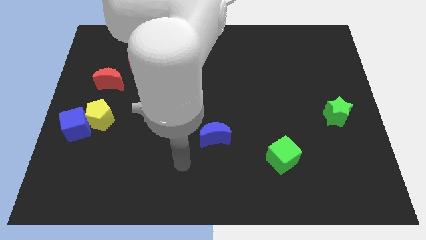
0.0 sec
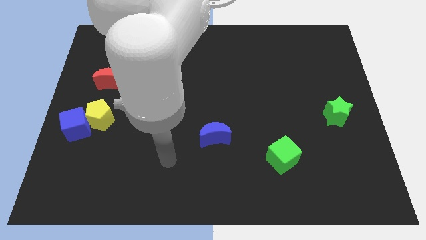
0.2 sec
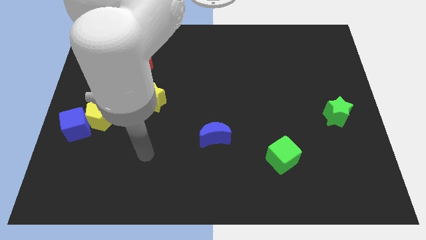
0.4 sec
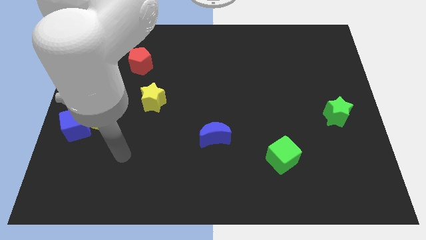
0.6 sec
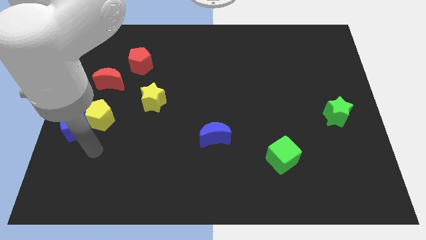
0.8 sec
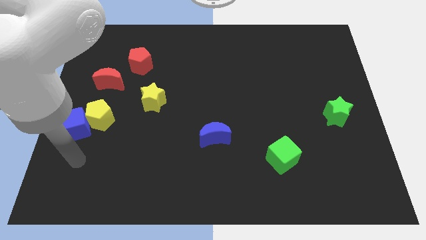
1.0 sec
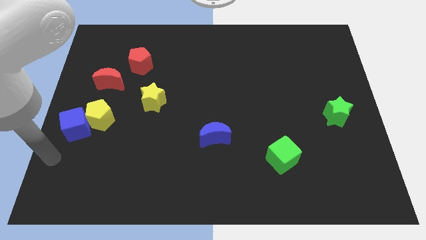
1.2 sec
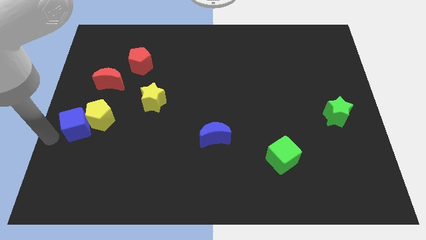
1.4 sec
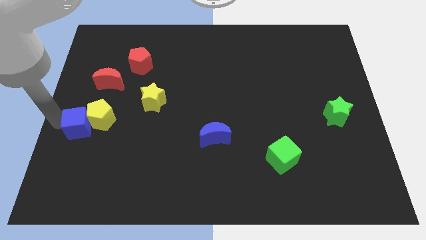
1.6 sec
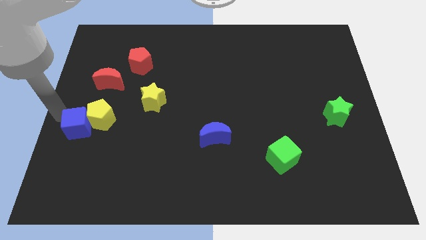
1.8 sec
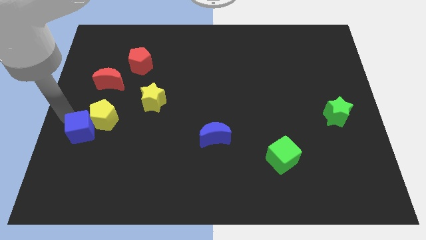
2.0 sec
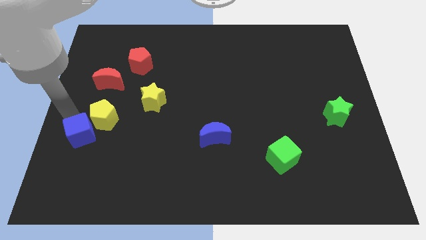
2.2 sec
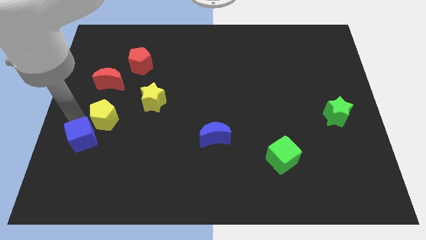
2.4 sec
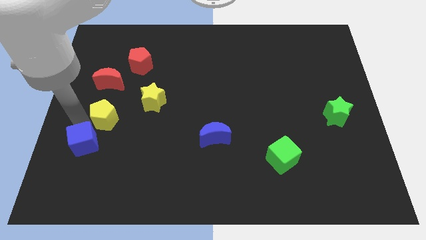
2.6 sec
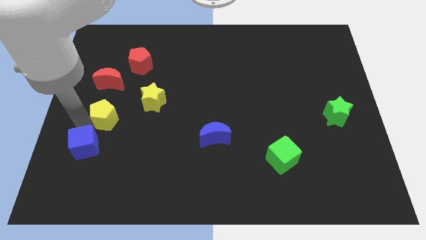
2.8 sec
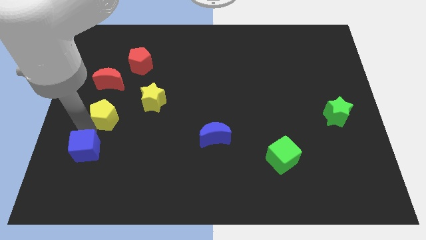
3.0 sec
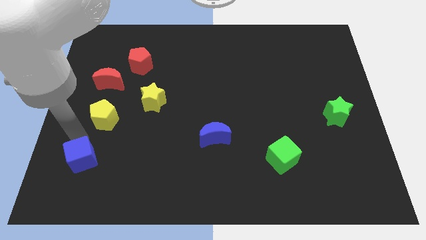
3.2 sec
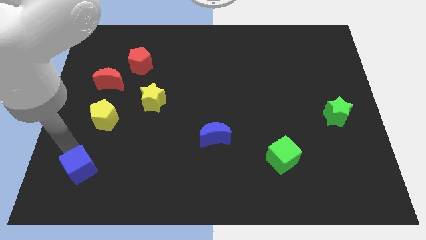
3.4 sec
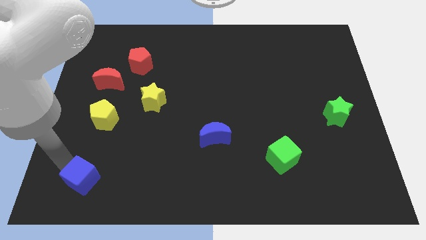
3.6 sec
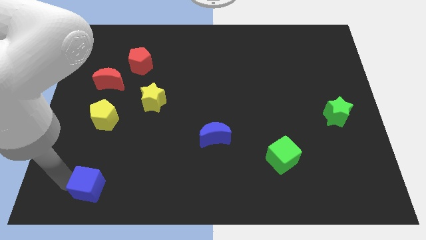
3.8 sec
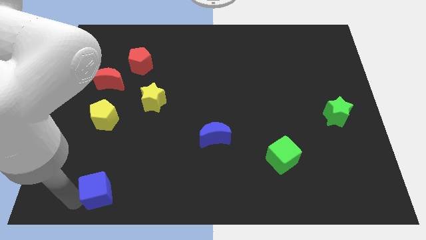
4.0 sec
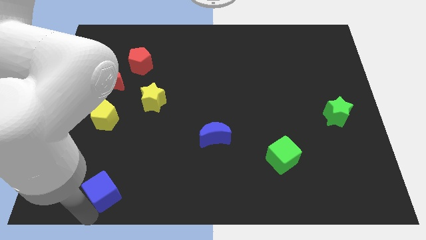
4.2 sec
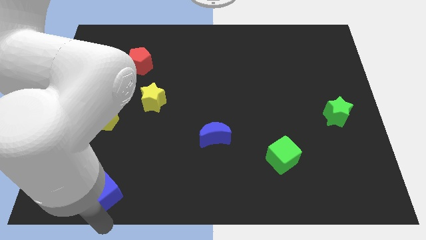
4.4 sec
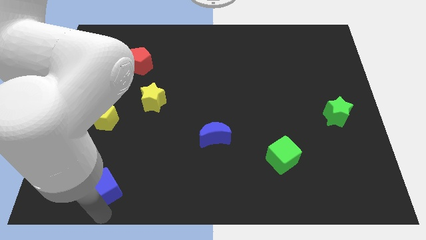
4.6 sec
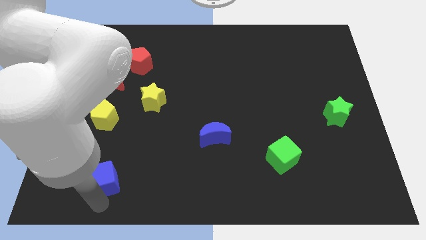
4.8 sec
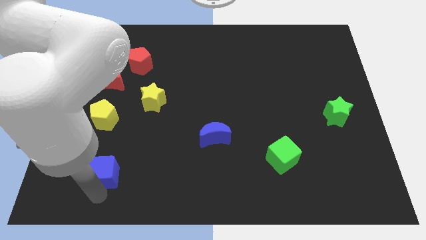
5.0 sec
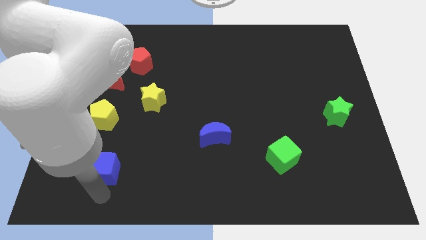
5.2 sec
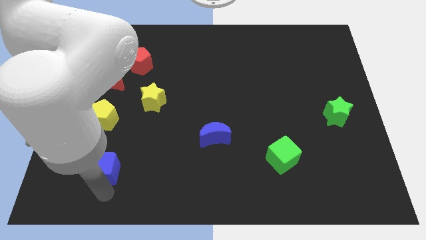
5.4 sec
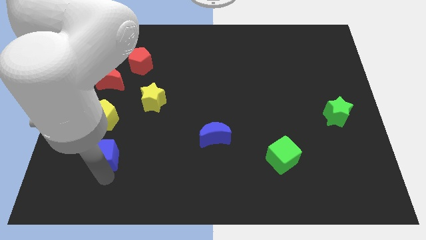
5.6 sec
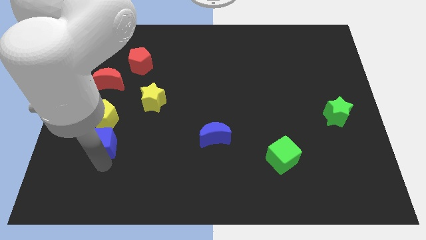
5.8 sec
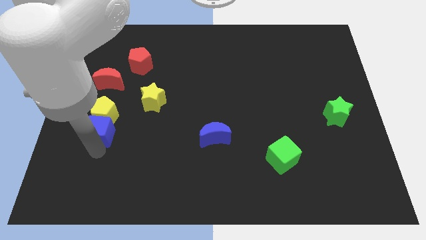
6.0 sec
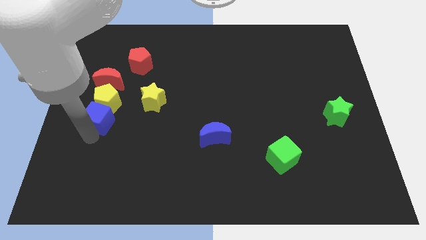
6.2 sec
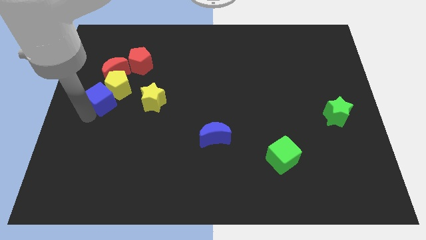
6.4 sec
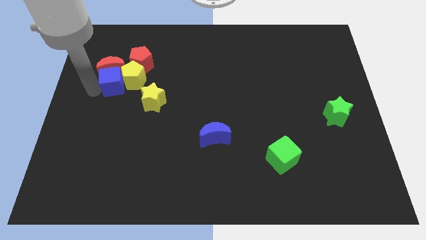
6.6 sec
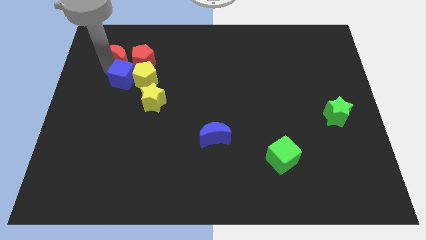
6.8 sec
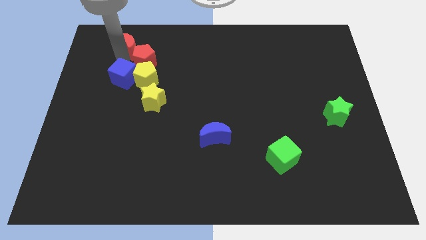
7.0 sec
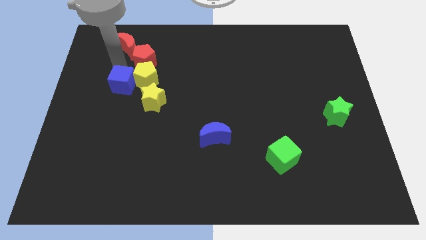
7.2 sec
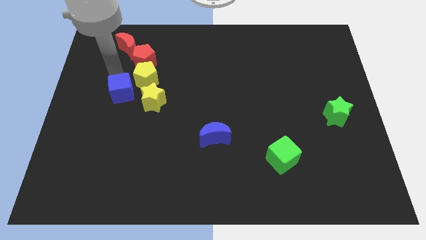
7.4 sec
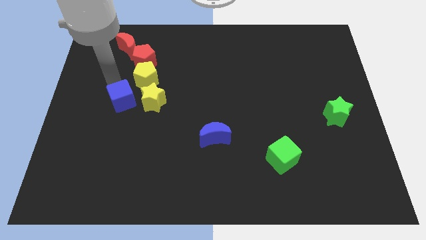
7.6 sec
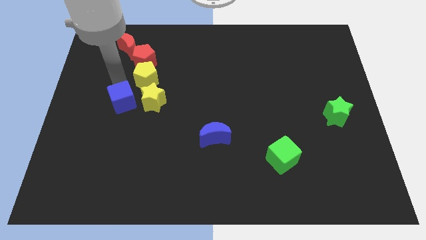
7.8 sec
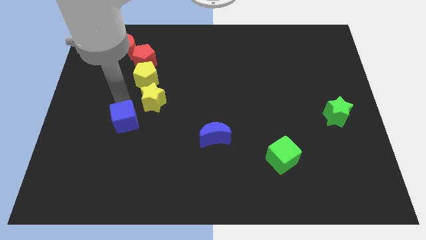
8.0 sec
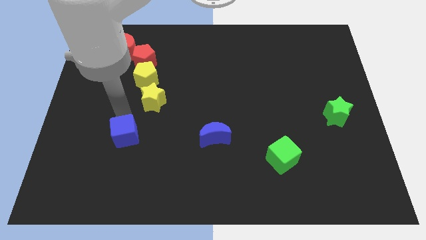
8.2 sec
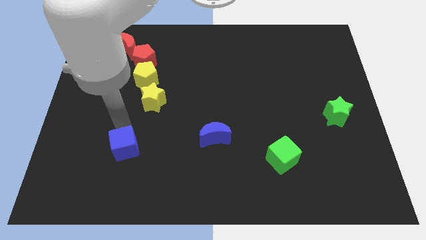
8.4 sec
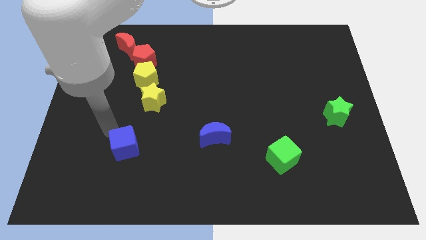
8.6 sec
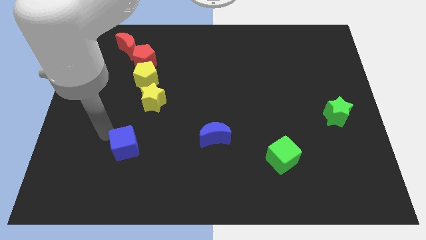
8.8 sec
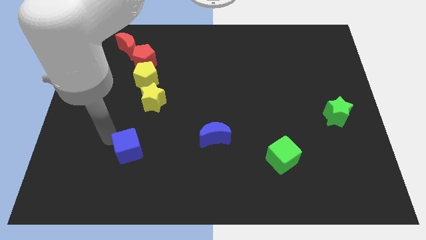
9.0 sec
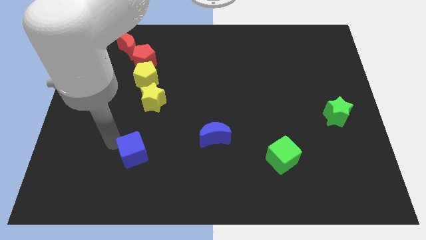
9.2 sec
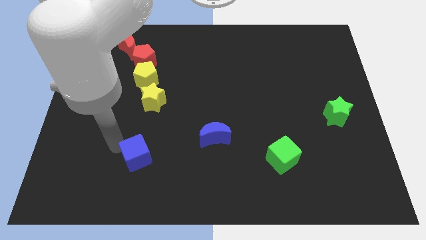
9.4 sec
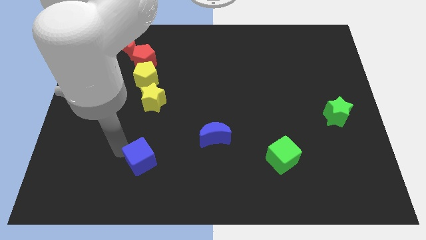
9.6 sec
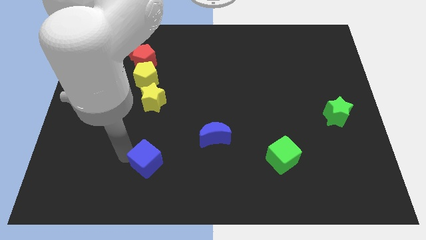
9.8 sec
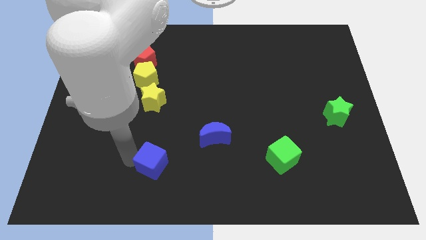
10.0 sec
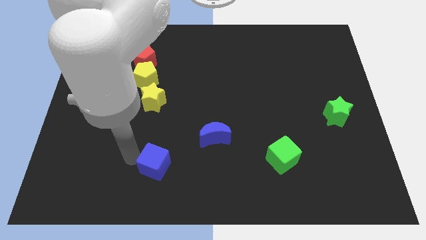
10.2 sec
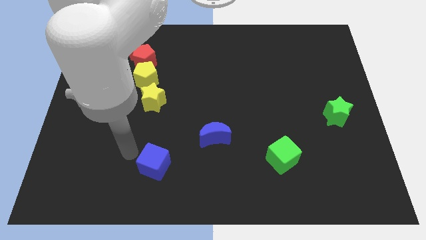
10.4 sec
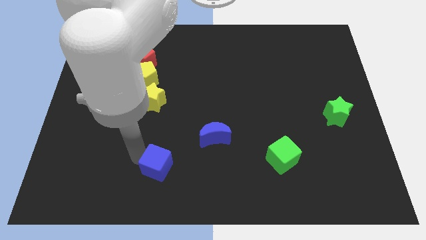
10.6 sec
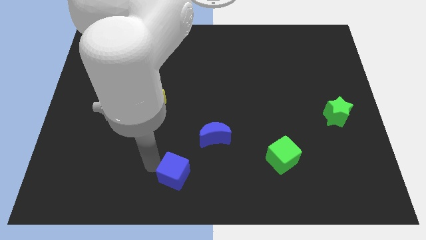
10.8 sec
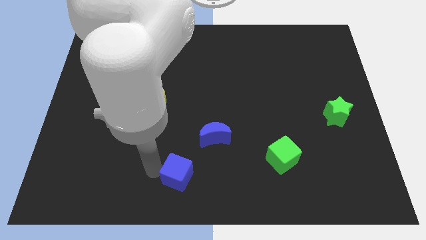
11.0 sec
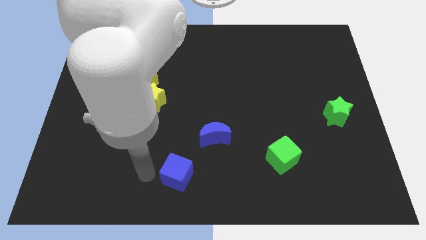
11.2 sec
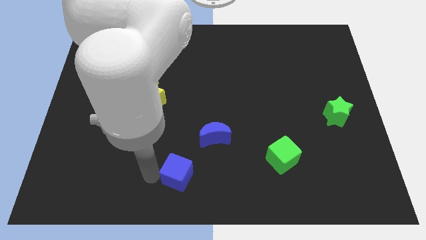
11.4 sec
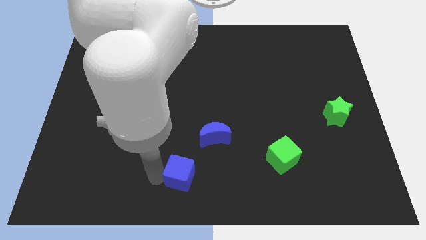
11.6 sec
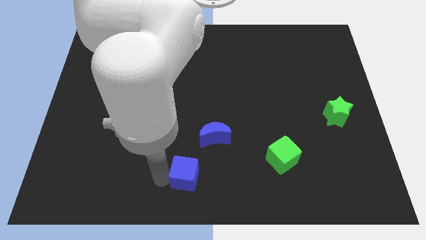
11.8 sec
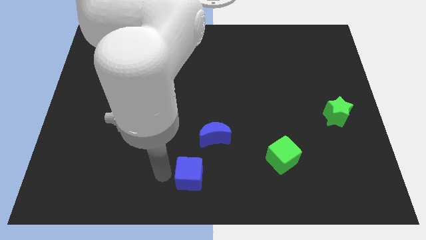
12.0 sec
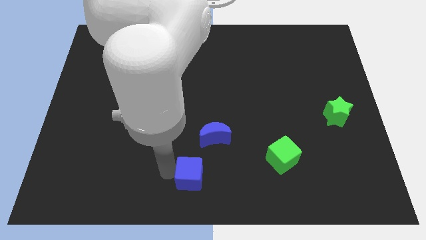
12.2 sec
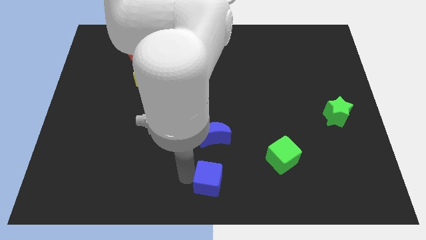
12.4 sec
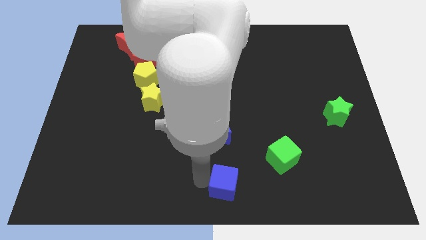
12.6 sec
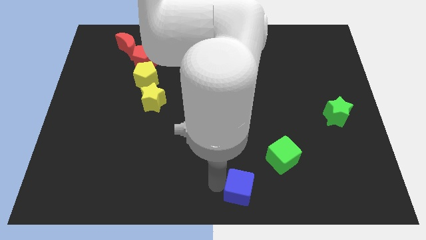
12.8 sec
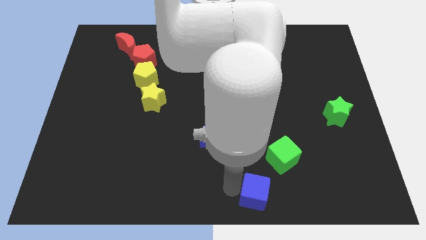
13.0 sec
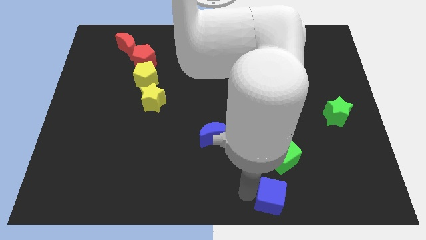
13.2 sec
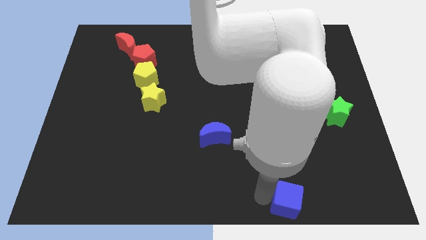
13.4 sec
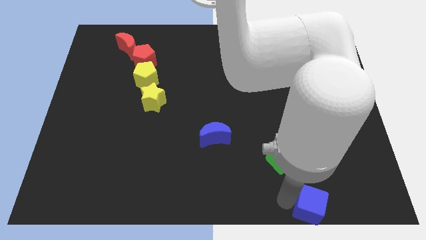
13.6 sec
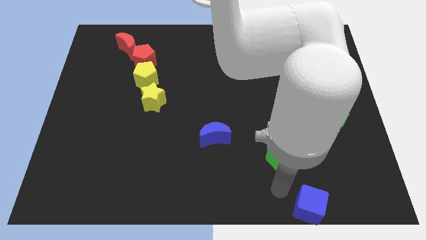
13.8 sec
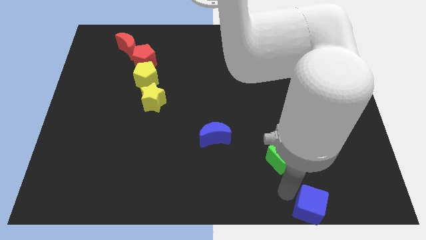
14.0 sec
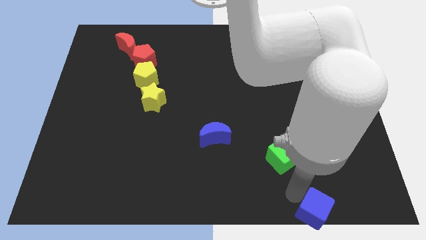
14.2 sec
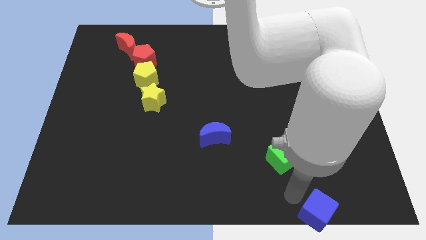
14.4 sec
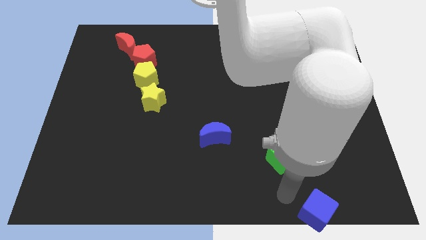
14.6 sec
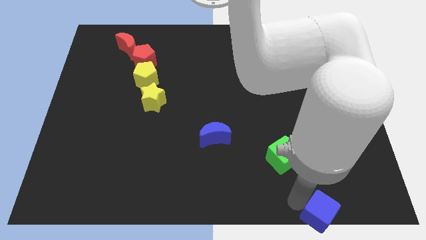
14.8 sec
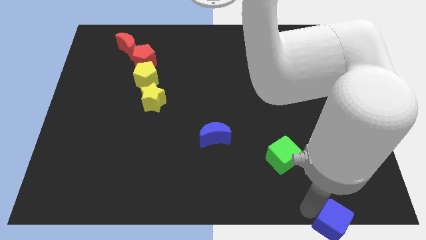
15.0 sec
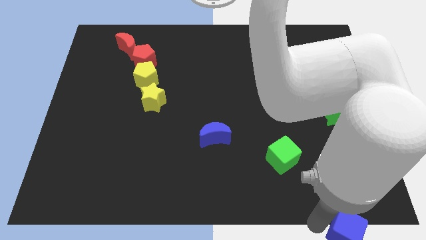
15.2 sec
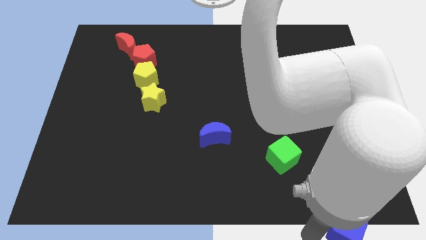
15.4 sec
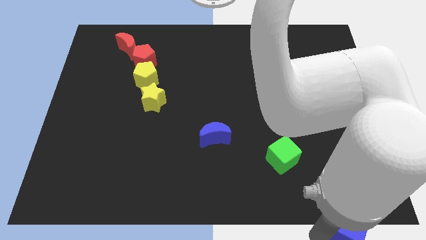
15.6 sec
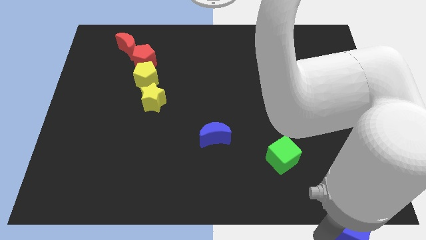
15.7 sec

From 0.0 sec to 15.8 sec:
slide the blue cube to the bottom right of the board
